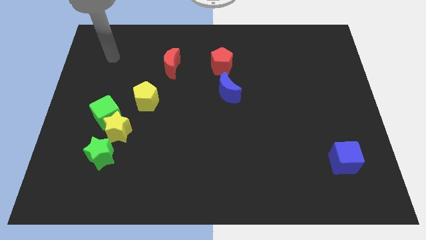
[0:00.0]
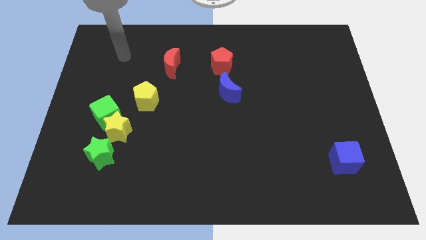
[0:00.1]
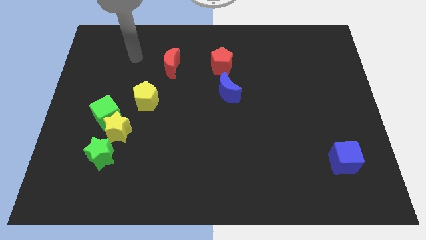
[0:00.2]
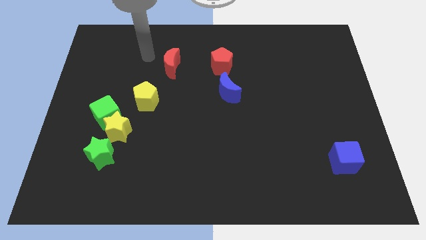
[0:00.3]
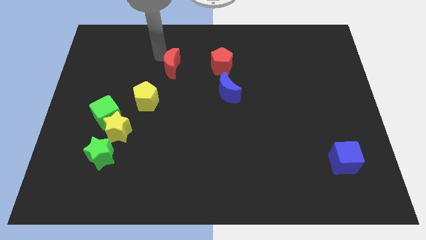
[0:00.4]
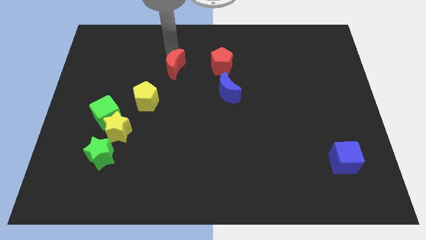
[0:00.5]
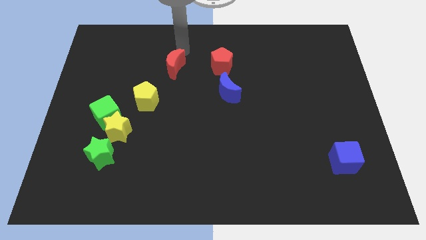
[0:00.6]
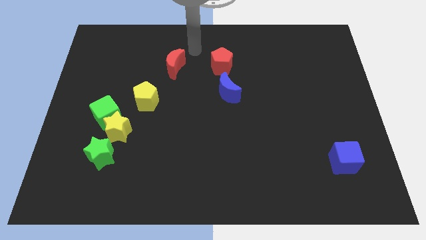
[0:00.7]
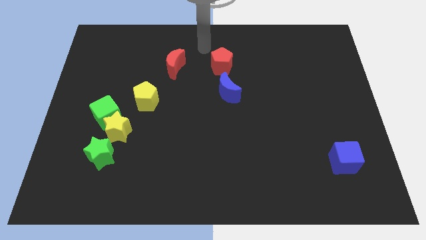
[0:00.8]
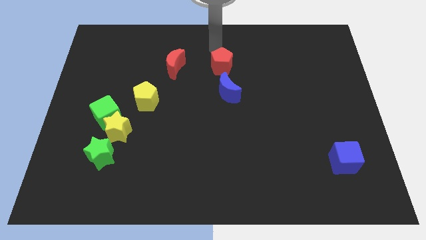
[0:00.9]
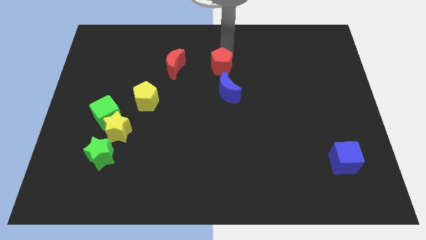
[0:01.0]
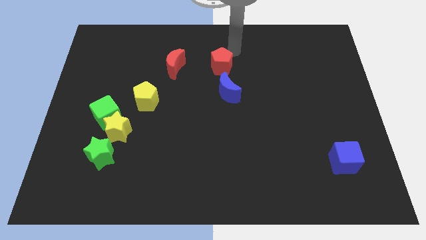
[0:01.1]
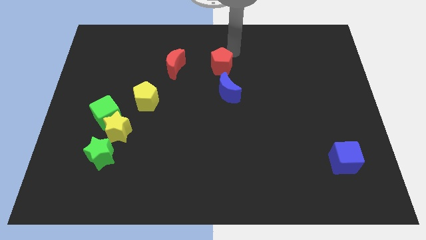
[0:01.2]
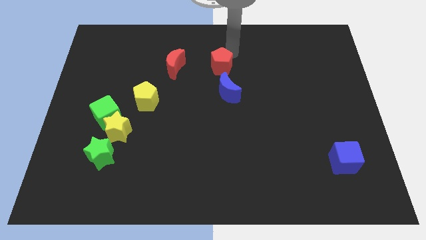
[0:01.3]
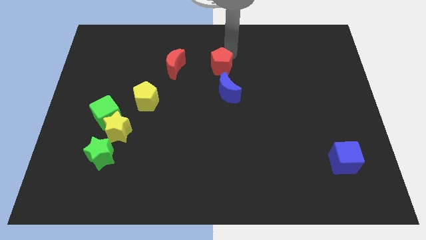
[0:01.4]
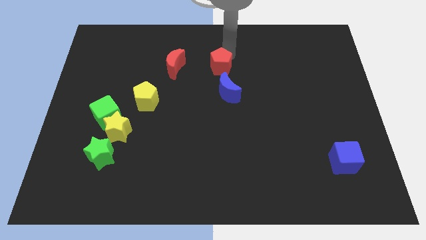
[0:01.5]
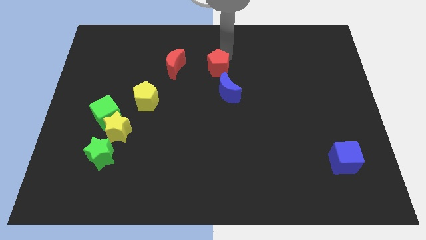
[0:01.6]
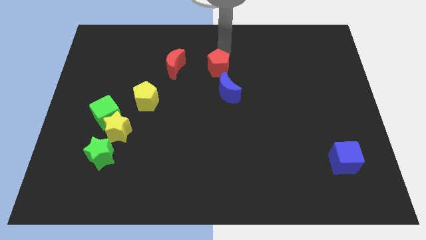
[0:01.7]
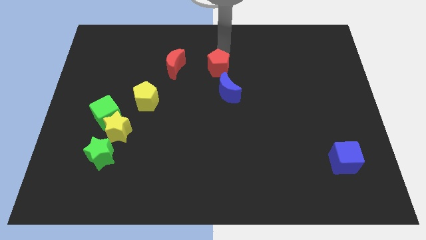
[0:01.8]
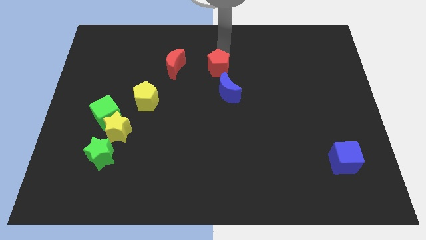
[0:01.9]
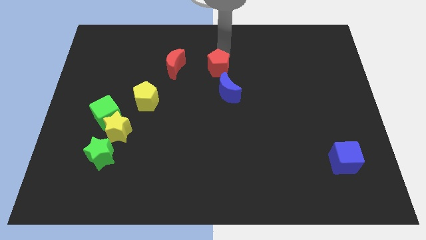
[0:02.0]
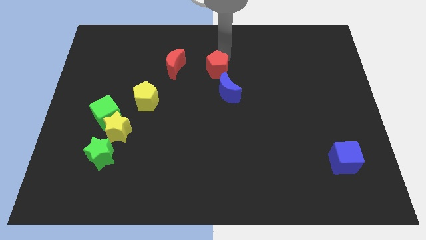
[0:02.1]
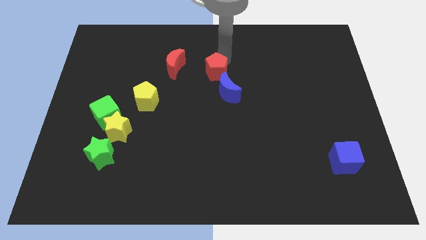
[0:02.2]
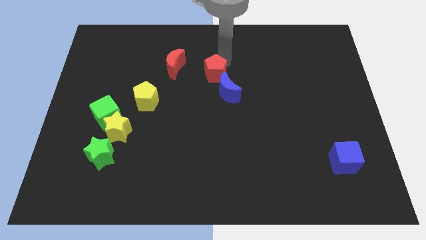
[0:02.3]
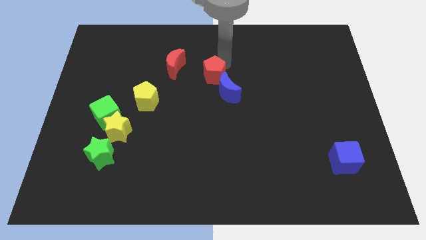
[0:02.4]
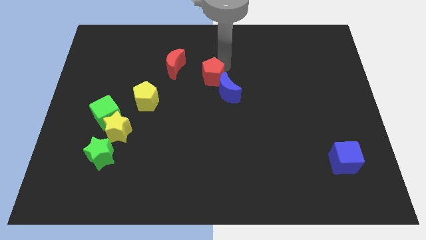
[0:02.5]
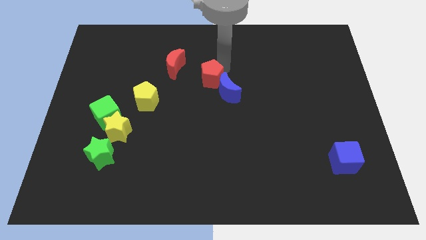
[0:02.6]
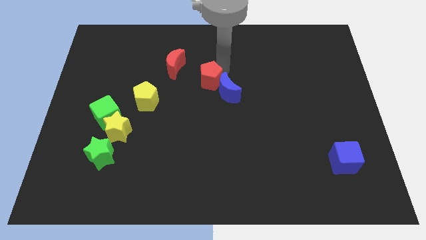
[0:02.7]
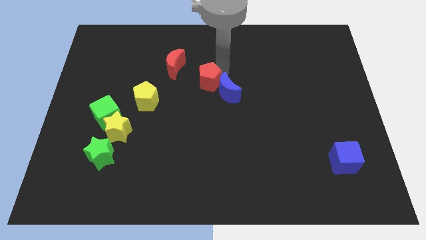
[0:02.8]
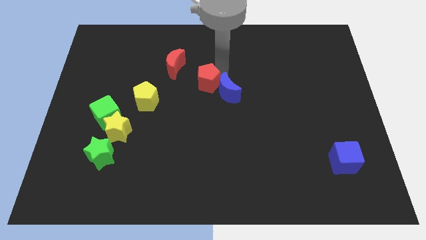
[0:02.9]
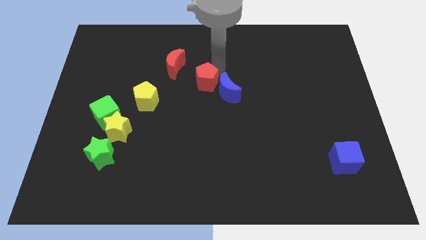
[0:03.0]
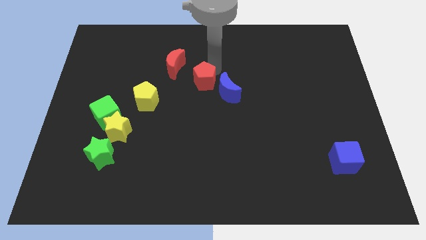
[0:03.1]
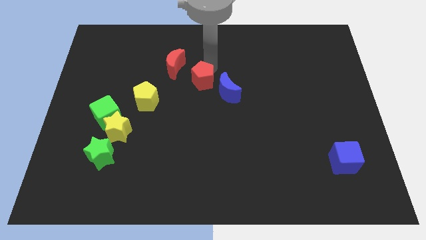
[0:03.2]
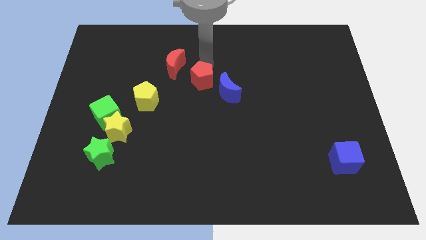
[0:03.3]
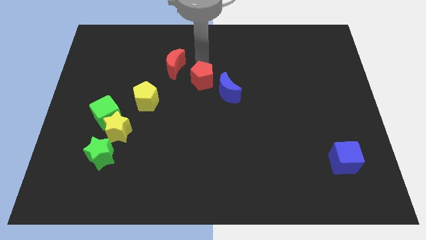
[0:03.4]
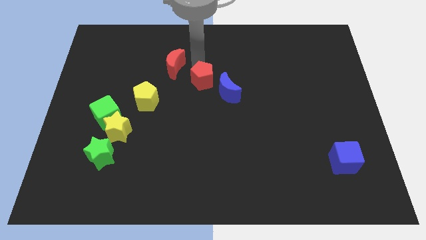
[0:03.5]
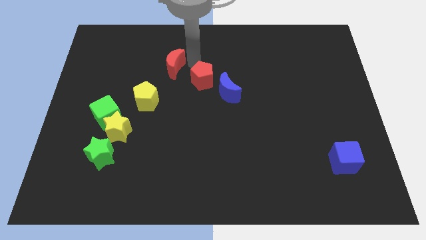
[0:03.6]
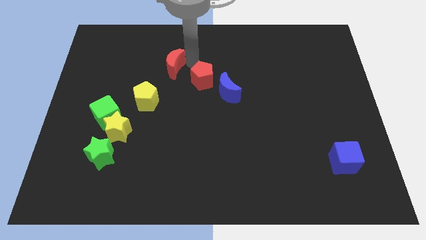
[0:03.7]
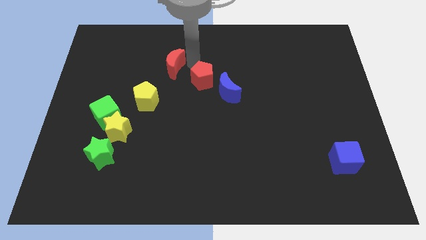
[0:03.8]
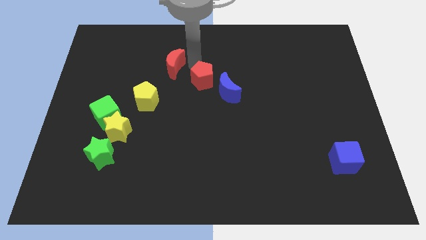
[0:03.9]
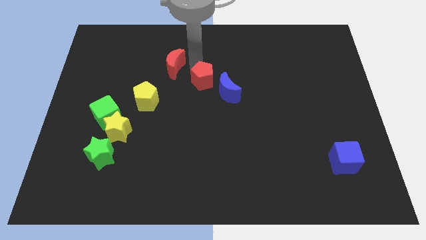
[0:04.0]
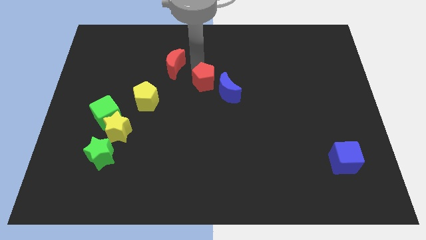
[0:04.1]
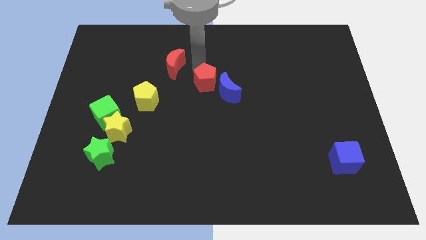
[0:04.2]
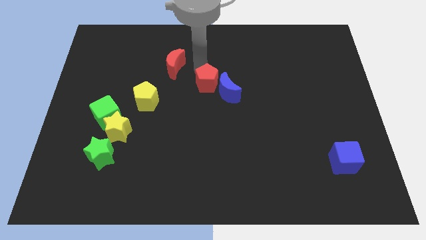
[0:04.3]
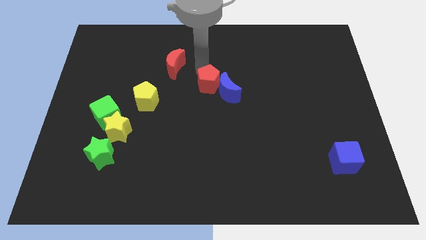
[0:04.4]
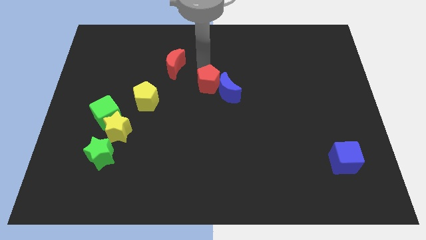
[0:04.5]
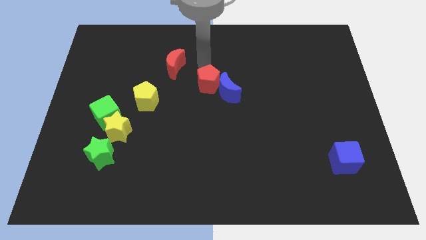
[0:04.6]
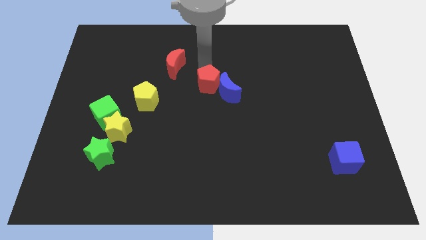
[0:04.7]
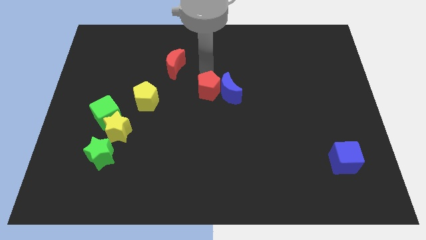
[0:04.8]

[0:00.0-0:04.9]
push the red pentagon downwards slightly

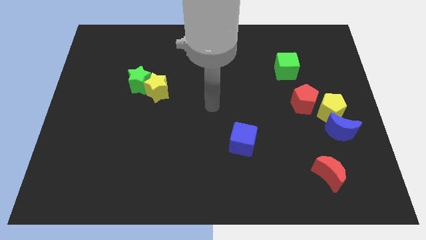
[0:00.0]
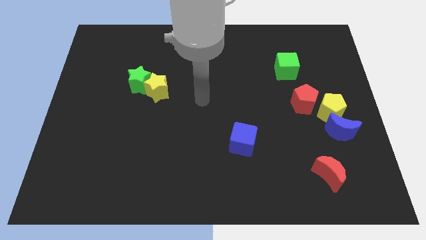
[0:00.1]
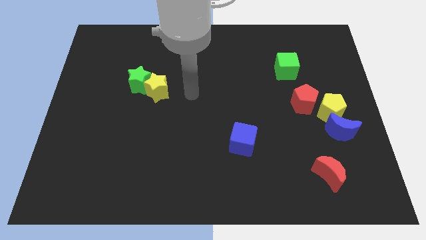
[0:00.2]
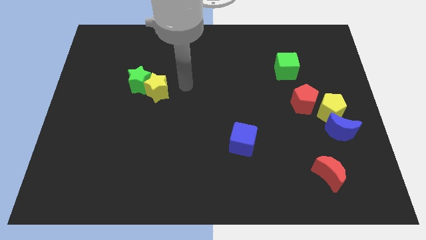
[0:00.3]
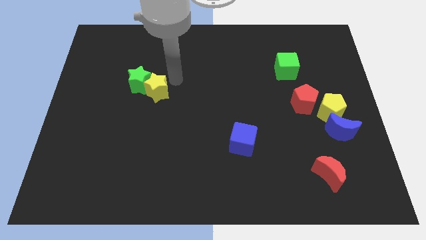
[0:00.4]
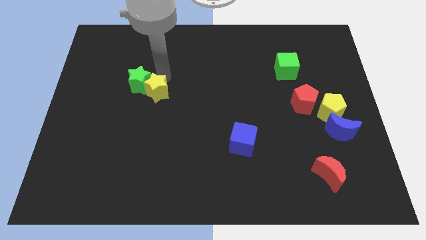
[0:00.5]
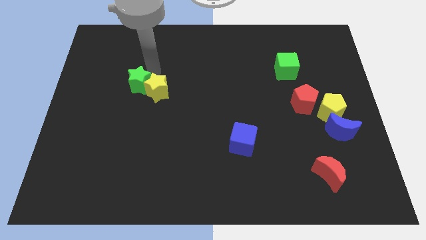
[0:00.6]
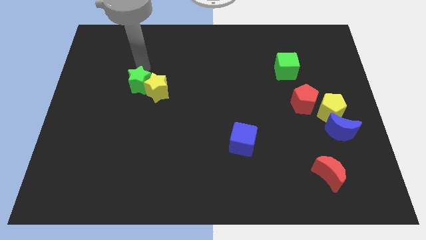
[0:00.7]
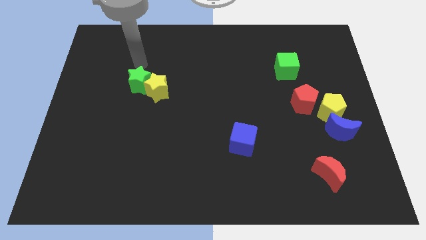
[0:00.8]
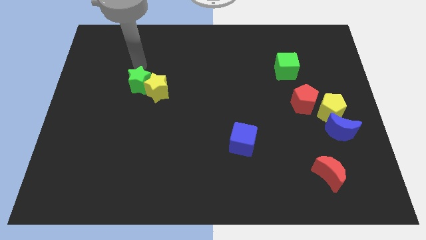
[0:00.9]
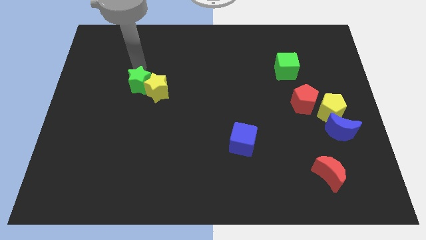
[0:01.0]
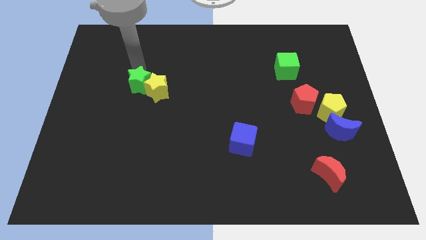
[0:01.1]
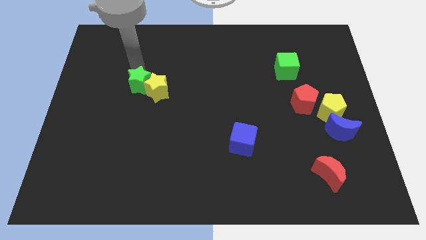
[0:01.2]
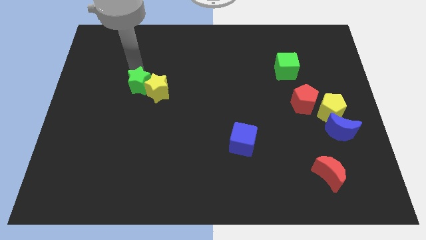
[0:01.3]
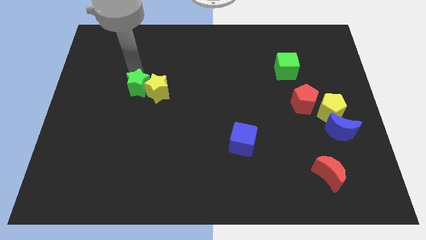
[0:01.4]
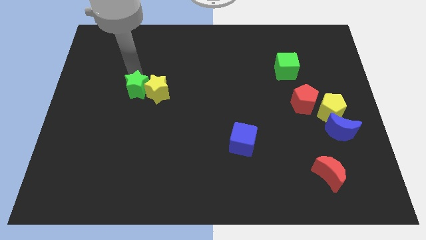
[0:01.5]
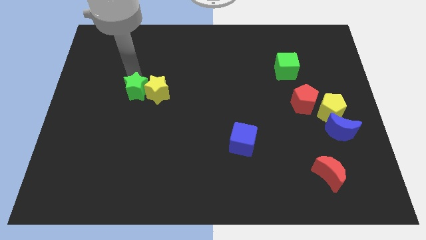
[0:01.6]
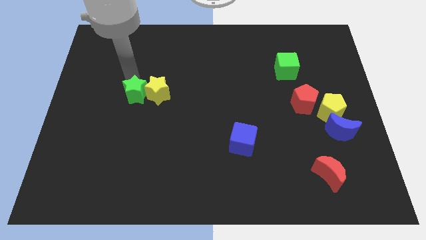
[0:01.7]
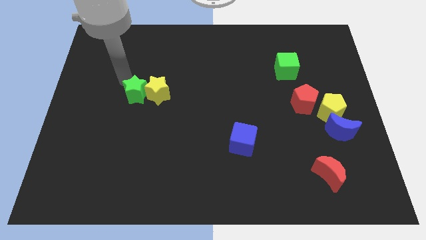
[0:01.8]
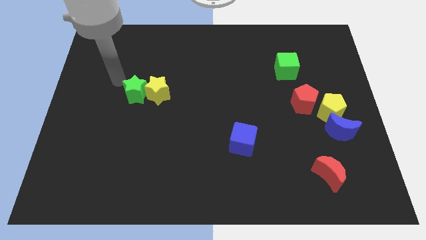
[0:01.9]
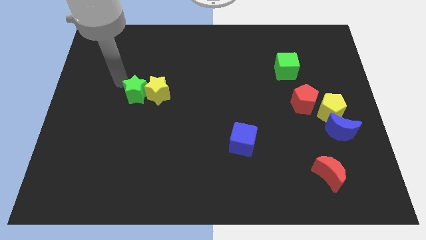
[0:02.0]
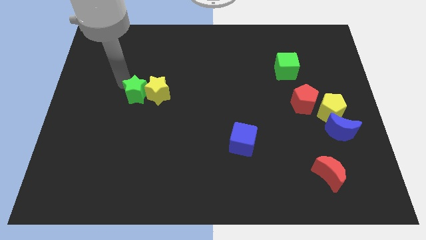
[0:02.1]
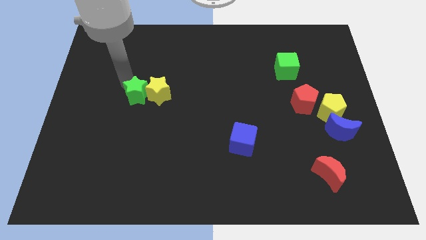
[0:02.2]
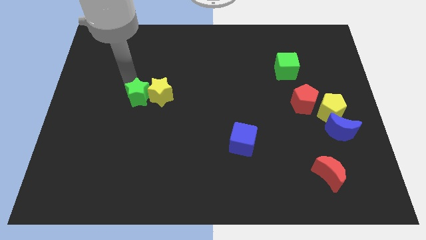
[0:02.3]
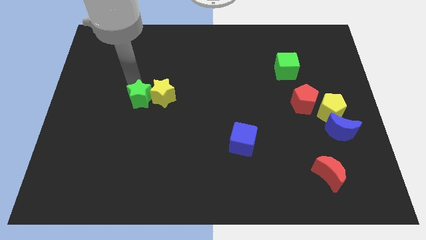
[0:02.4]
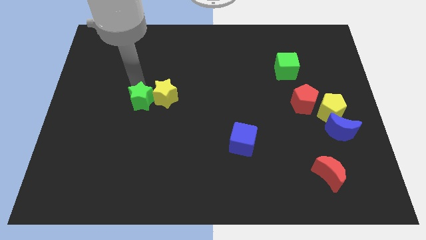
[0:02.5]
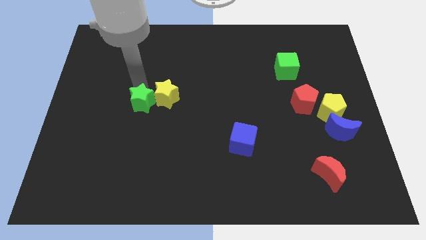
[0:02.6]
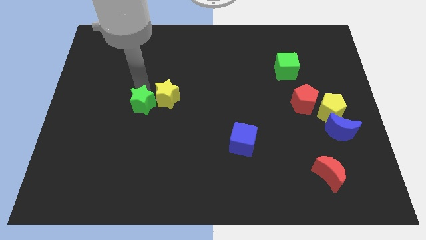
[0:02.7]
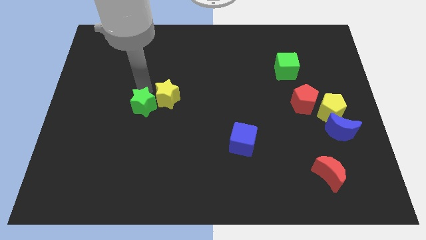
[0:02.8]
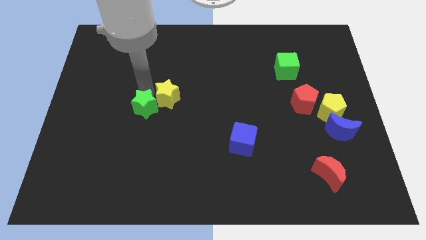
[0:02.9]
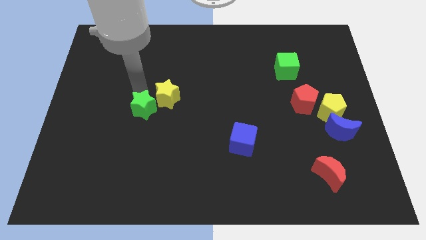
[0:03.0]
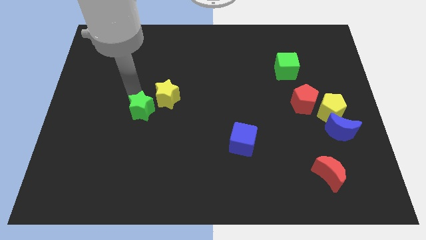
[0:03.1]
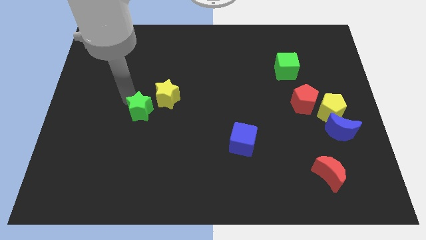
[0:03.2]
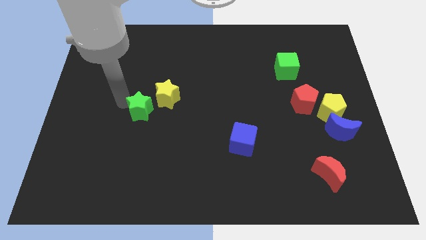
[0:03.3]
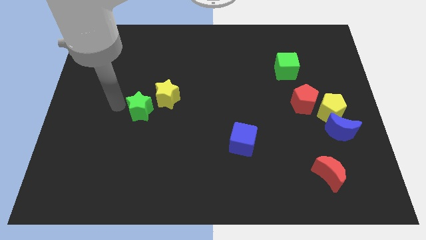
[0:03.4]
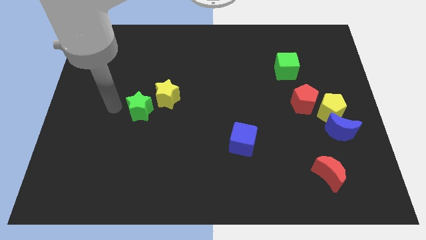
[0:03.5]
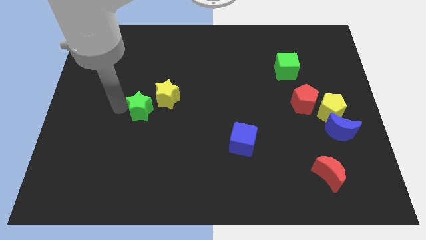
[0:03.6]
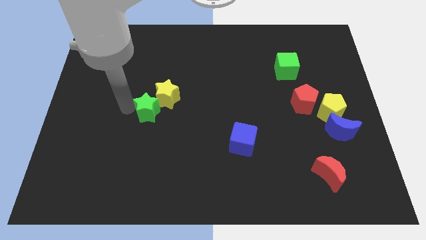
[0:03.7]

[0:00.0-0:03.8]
push the green star downwards and right diagonally a bit
